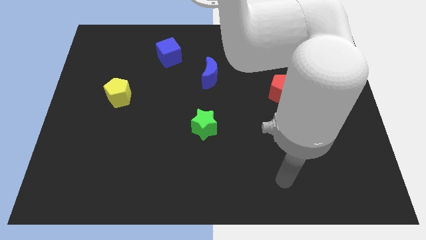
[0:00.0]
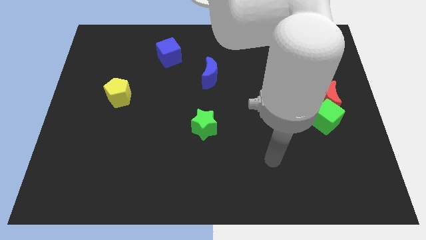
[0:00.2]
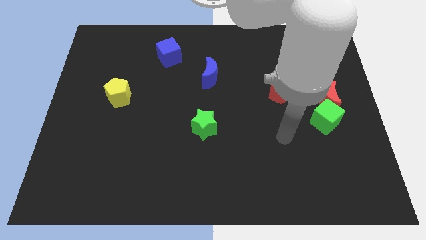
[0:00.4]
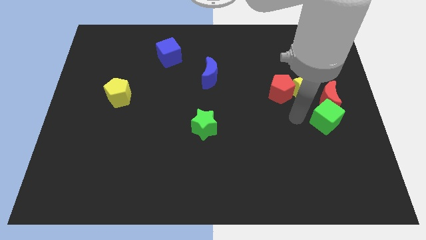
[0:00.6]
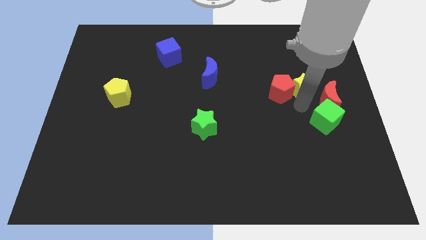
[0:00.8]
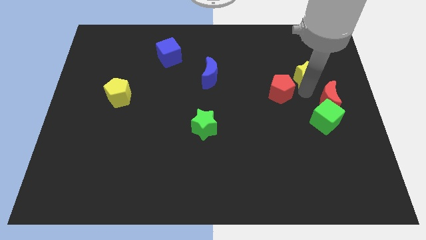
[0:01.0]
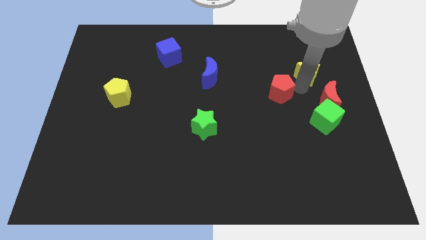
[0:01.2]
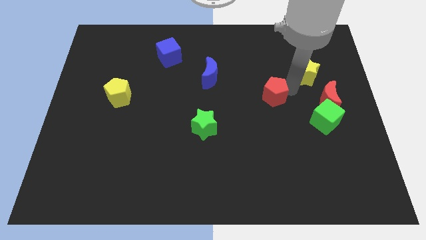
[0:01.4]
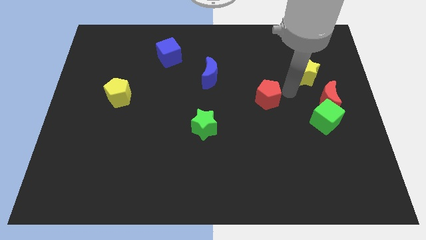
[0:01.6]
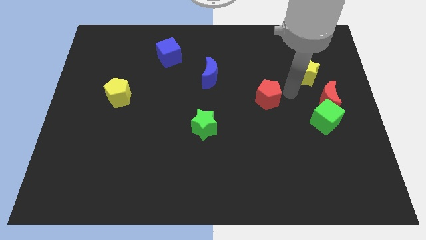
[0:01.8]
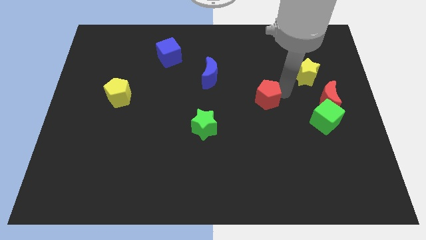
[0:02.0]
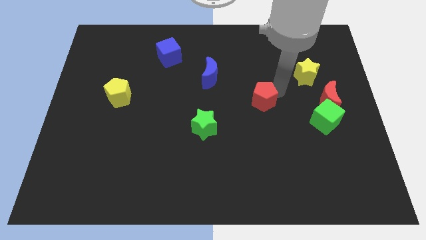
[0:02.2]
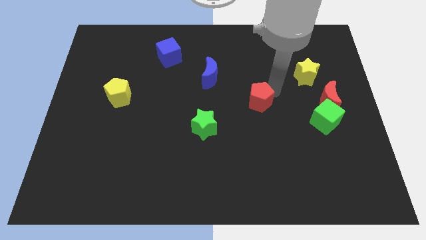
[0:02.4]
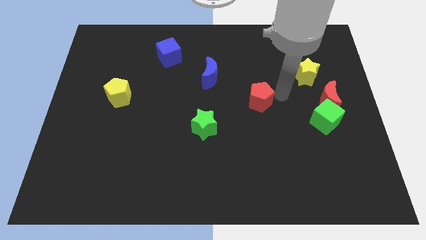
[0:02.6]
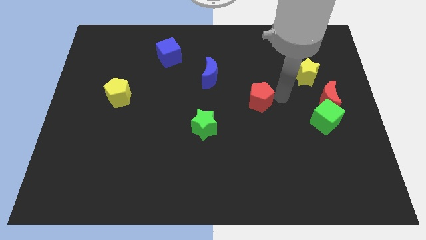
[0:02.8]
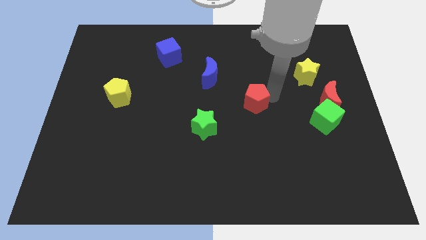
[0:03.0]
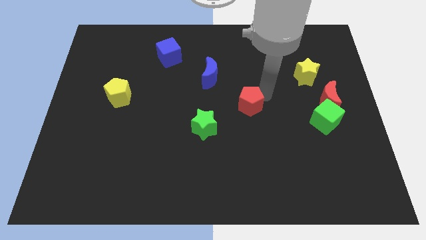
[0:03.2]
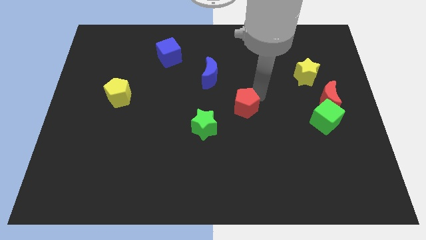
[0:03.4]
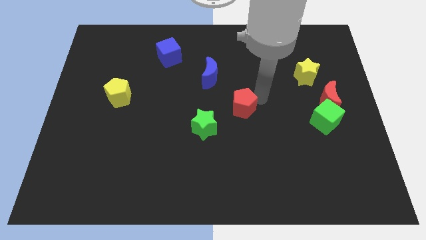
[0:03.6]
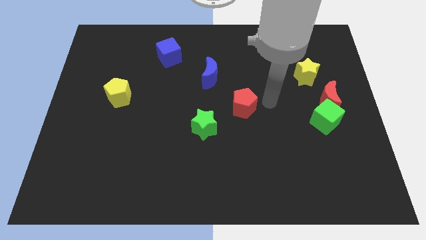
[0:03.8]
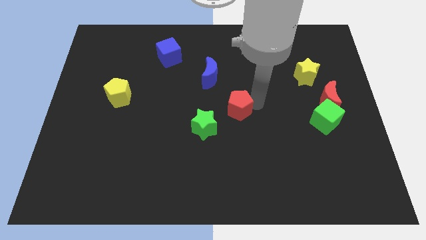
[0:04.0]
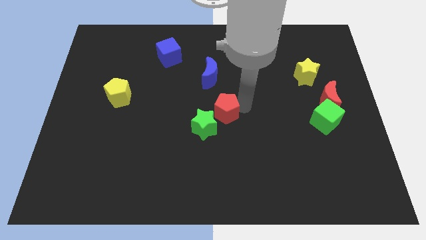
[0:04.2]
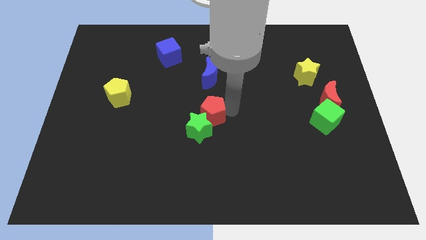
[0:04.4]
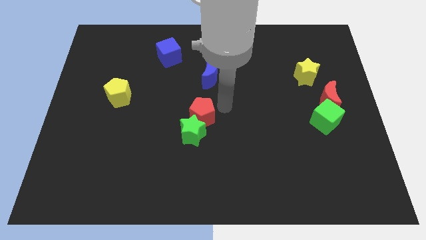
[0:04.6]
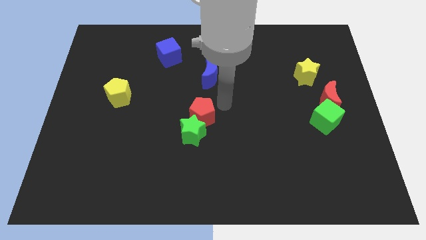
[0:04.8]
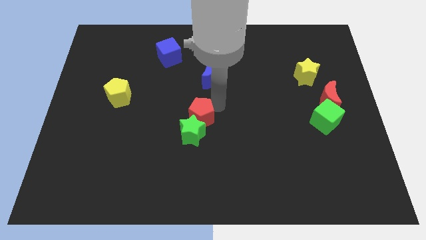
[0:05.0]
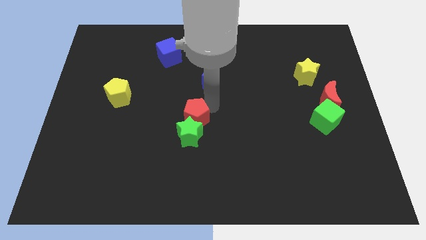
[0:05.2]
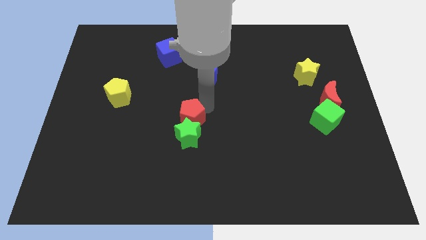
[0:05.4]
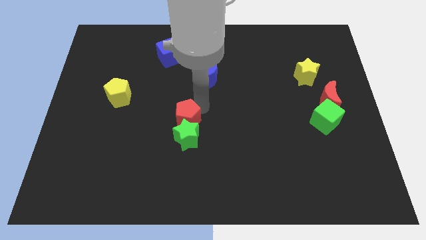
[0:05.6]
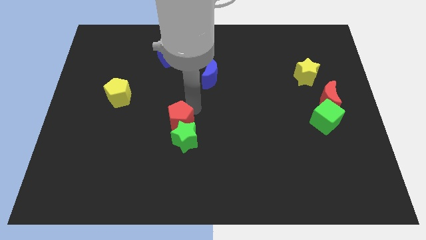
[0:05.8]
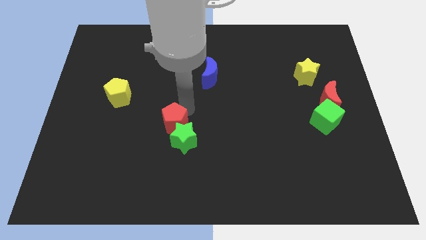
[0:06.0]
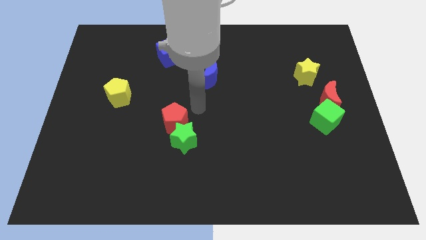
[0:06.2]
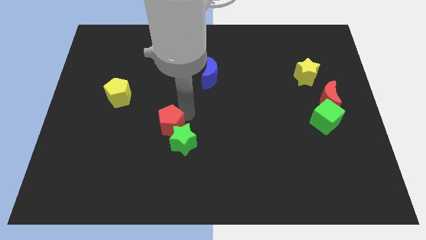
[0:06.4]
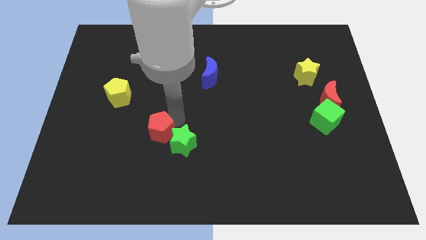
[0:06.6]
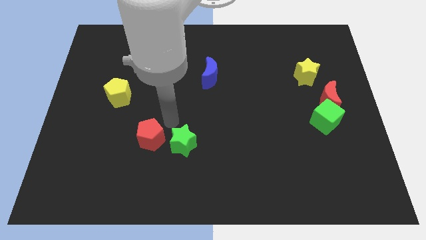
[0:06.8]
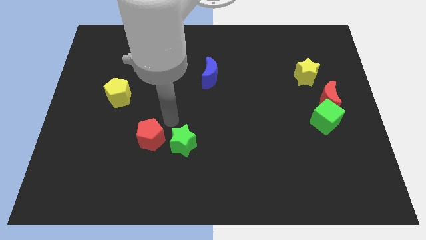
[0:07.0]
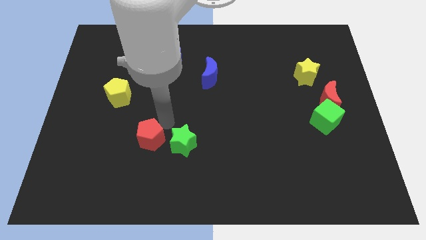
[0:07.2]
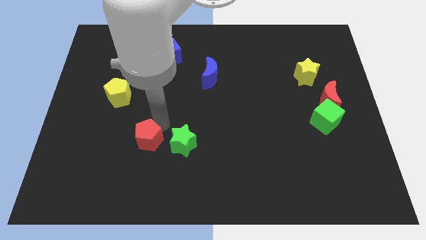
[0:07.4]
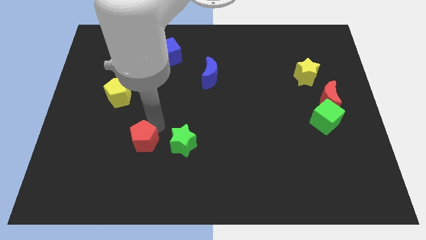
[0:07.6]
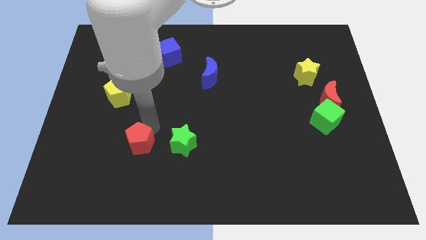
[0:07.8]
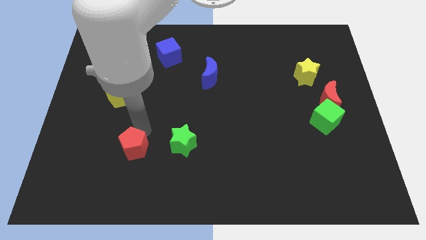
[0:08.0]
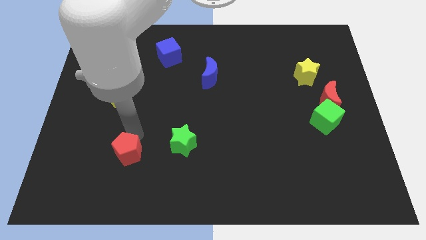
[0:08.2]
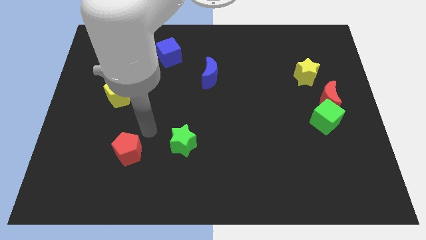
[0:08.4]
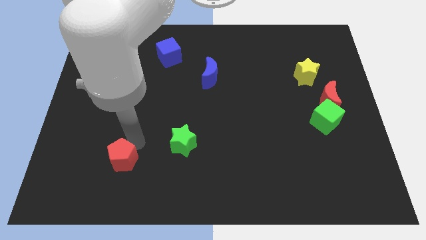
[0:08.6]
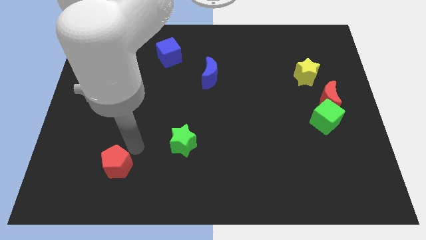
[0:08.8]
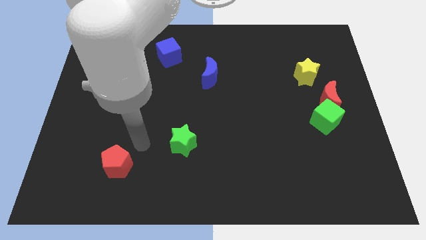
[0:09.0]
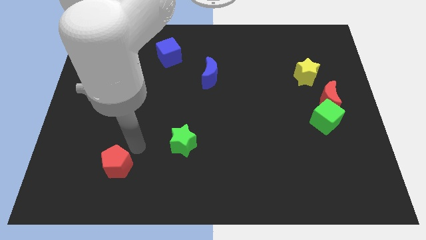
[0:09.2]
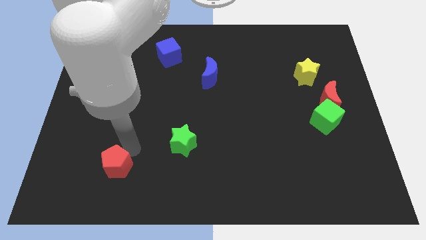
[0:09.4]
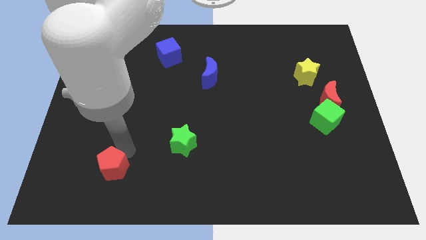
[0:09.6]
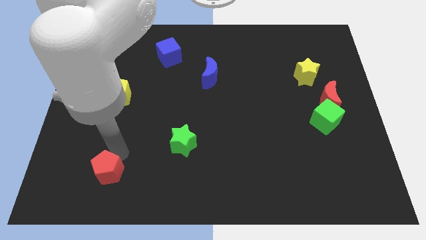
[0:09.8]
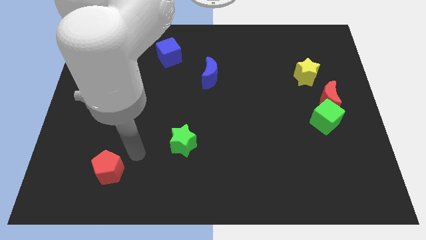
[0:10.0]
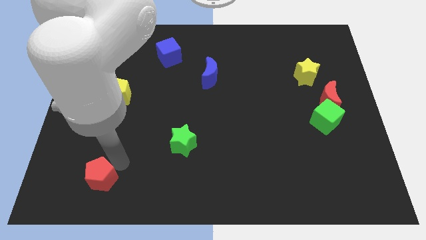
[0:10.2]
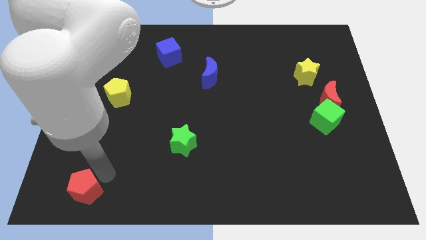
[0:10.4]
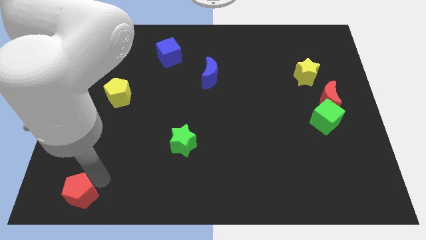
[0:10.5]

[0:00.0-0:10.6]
move the red pentagon to the bottom left of the board

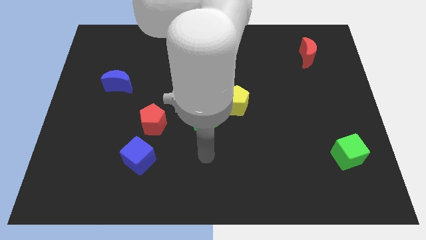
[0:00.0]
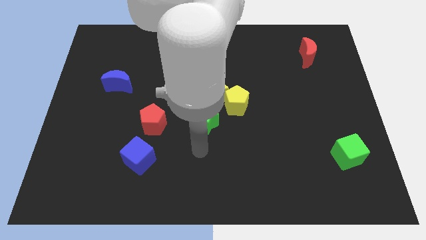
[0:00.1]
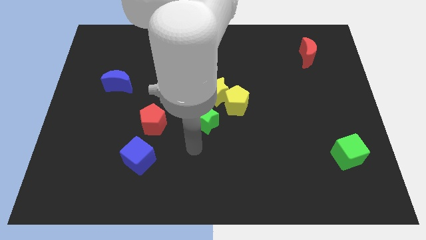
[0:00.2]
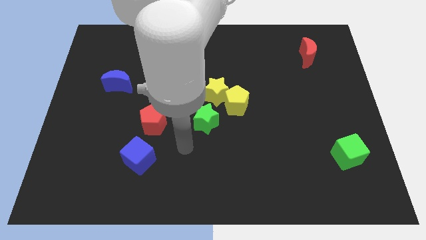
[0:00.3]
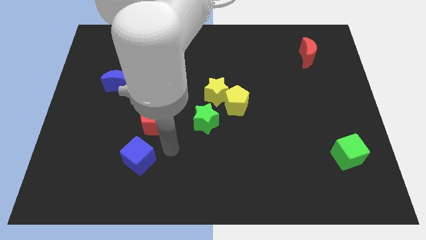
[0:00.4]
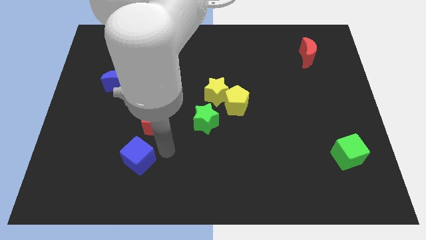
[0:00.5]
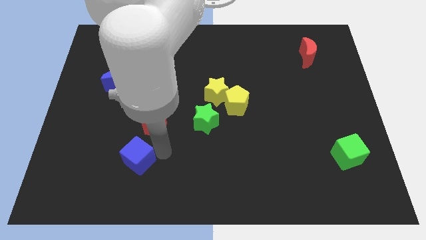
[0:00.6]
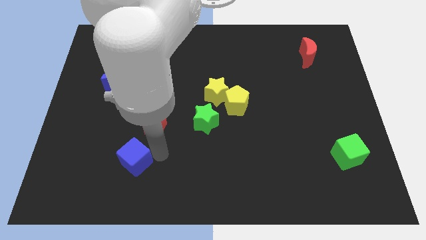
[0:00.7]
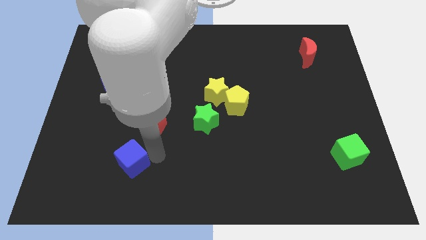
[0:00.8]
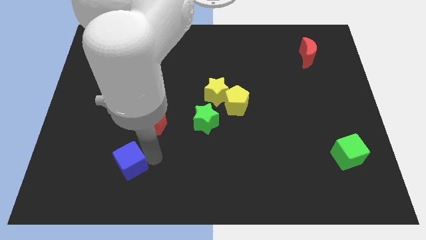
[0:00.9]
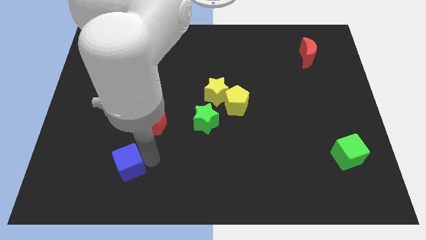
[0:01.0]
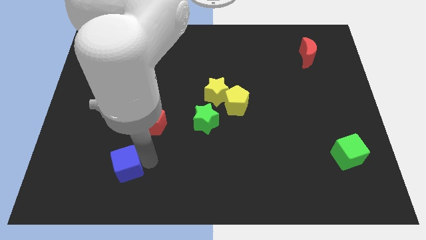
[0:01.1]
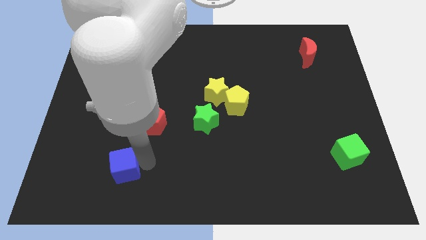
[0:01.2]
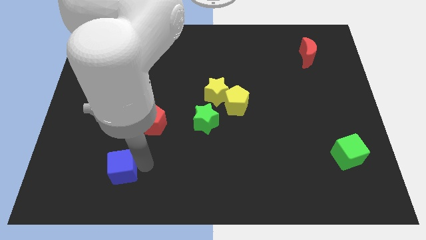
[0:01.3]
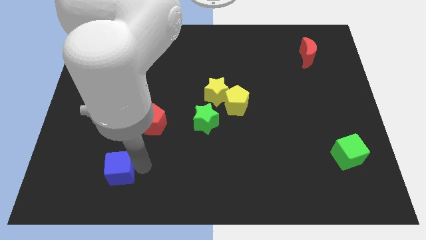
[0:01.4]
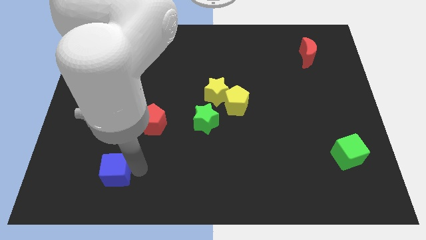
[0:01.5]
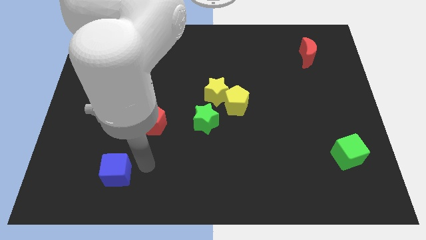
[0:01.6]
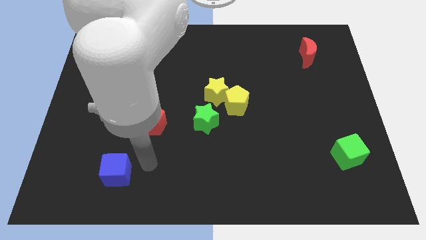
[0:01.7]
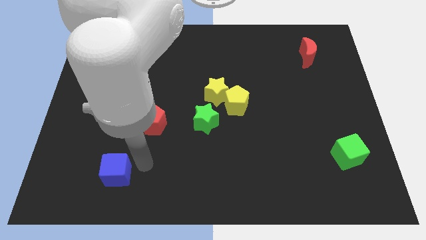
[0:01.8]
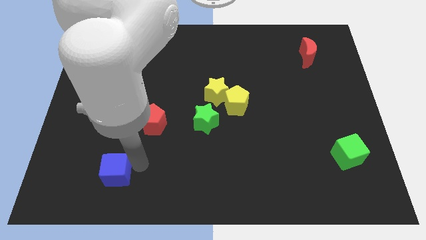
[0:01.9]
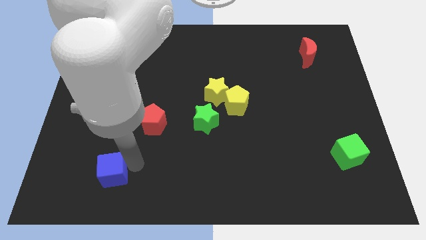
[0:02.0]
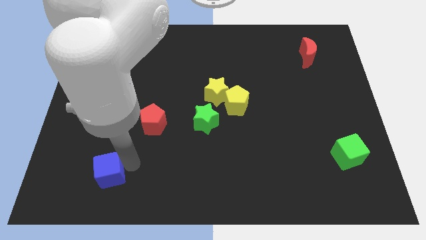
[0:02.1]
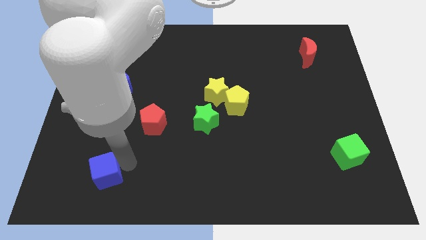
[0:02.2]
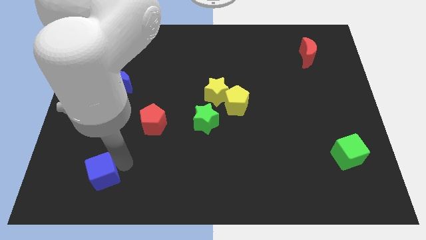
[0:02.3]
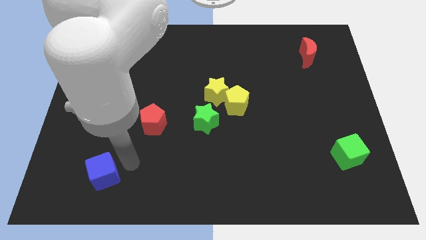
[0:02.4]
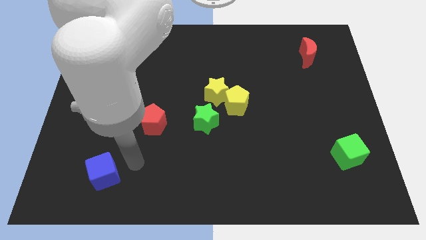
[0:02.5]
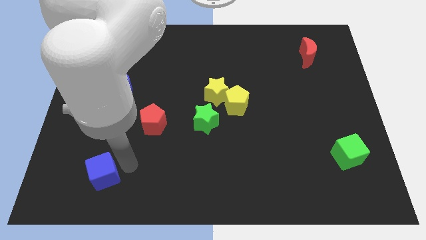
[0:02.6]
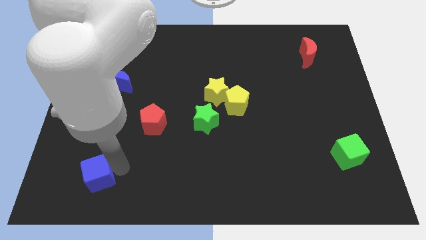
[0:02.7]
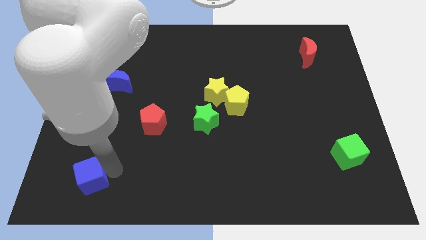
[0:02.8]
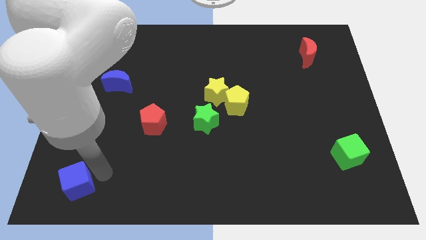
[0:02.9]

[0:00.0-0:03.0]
slide the blue cube to the bottom left
